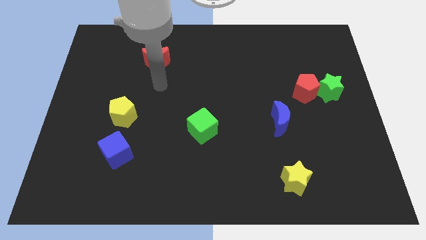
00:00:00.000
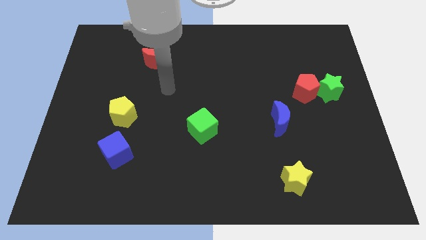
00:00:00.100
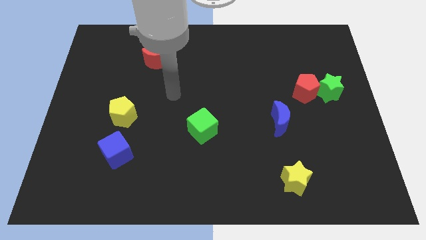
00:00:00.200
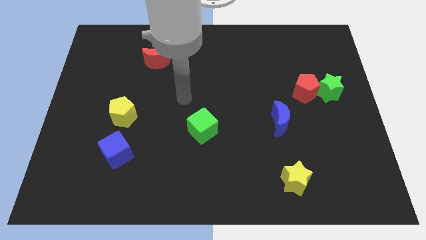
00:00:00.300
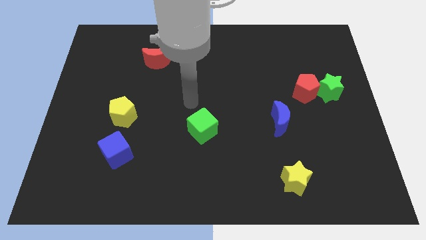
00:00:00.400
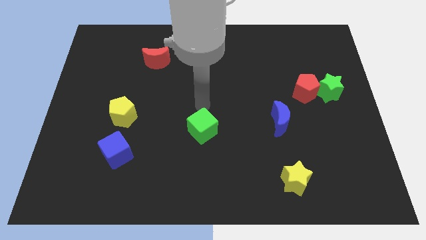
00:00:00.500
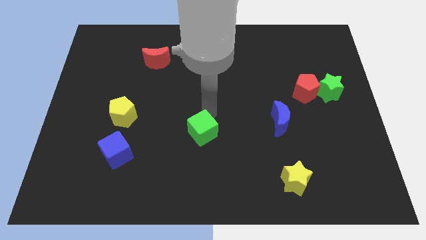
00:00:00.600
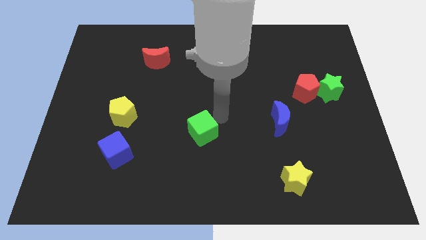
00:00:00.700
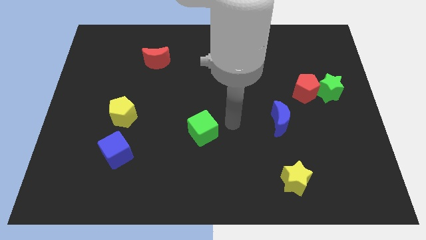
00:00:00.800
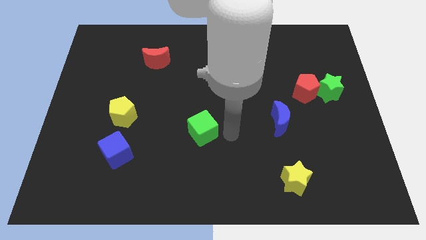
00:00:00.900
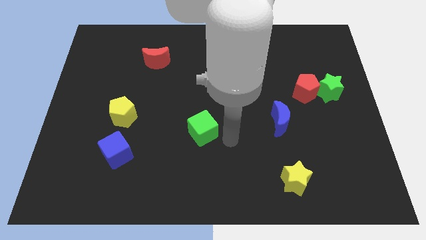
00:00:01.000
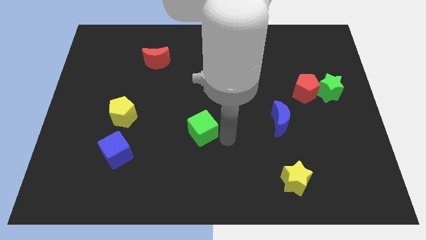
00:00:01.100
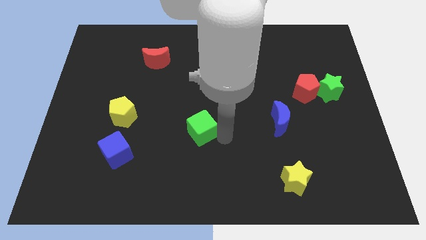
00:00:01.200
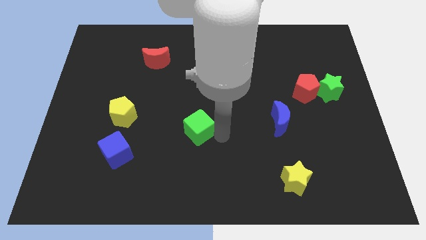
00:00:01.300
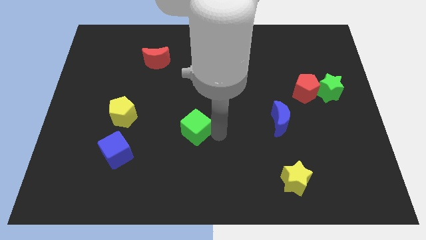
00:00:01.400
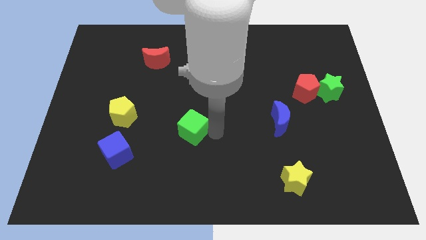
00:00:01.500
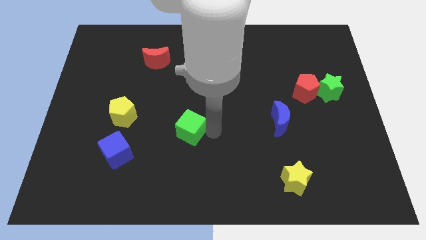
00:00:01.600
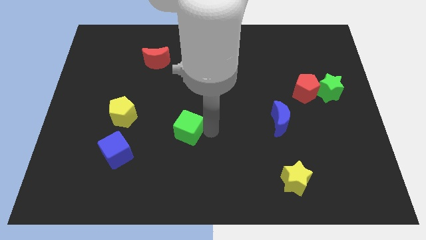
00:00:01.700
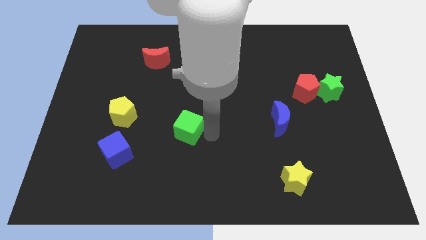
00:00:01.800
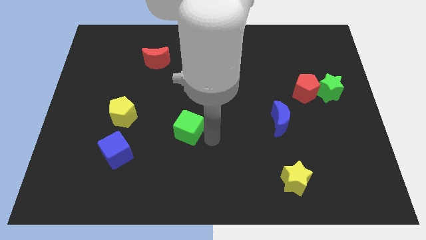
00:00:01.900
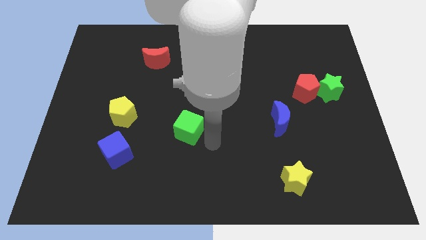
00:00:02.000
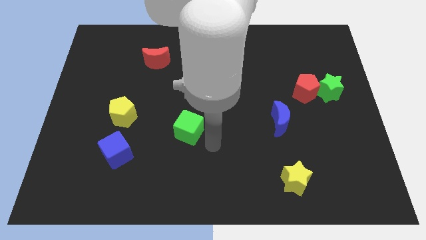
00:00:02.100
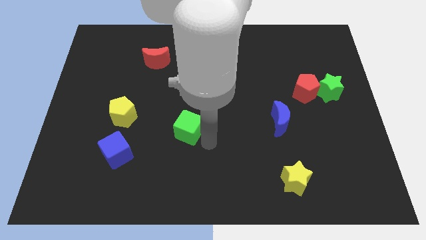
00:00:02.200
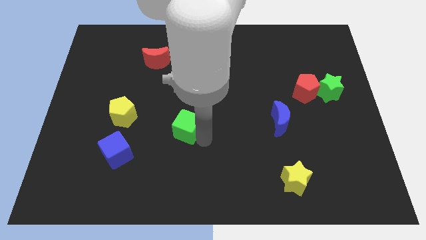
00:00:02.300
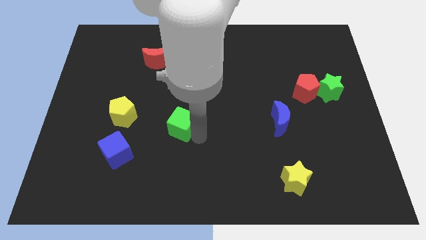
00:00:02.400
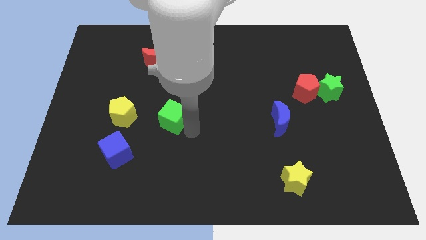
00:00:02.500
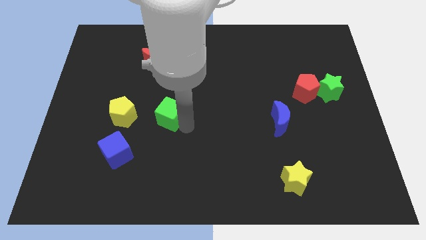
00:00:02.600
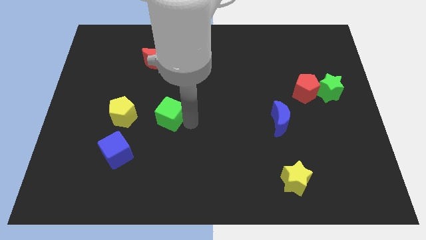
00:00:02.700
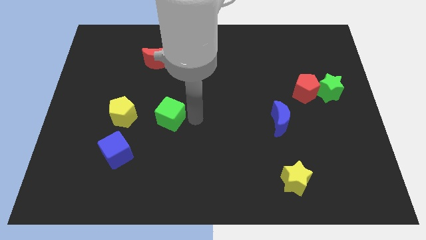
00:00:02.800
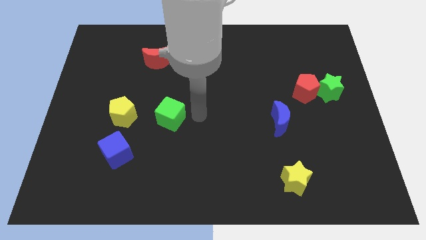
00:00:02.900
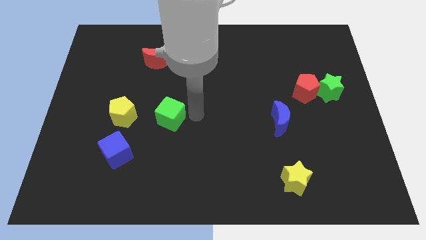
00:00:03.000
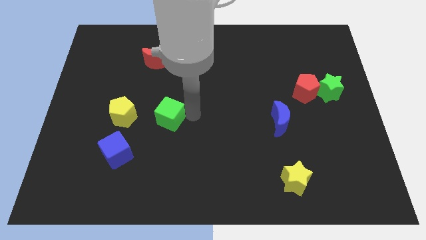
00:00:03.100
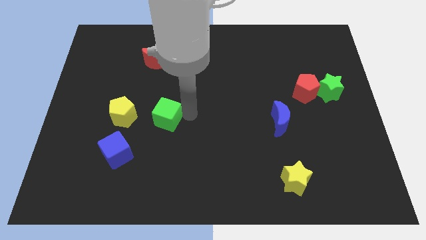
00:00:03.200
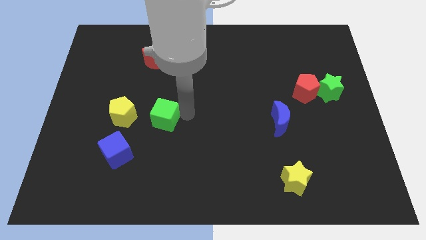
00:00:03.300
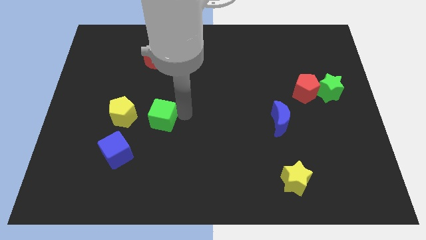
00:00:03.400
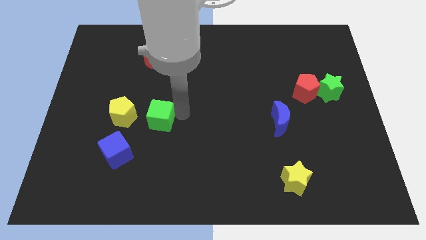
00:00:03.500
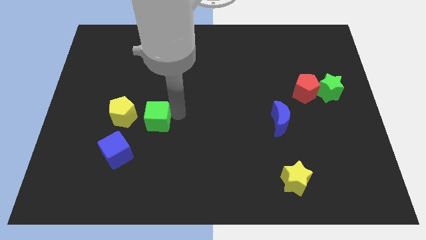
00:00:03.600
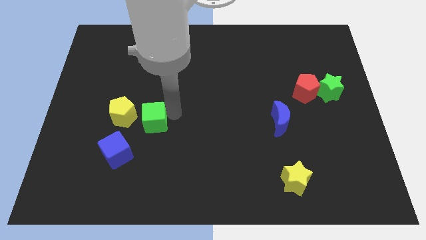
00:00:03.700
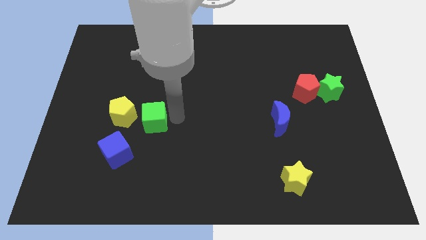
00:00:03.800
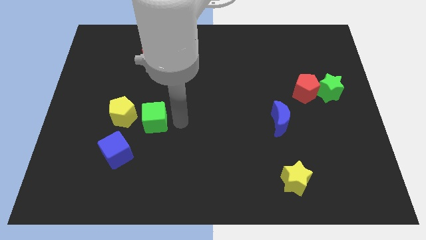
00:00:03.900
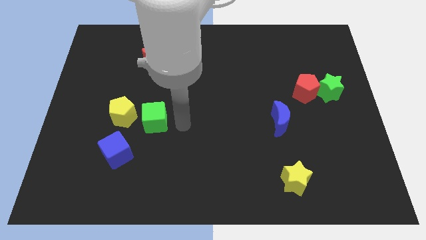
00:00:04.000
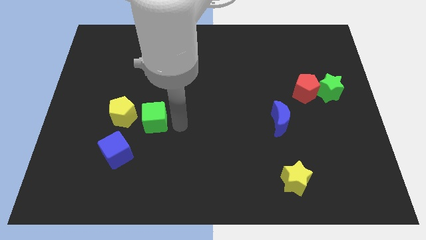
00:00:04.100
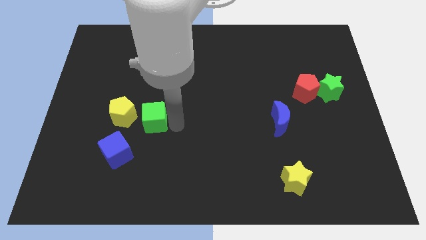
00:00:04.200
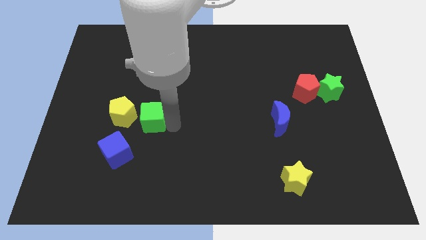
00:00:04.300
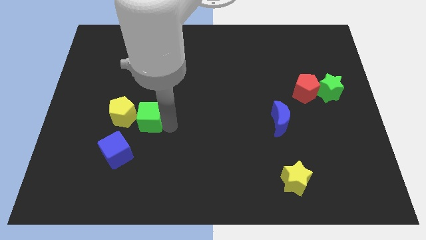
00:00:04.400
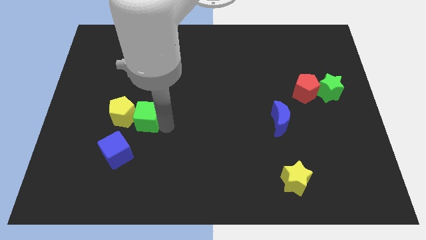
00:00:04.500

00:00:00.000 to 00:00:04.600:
push the green cube towards the yellow pentagon

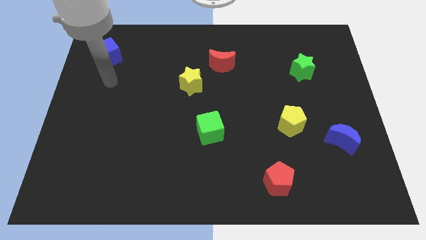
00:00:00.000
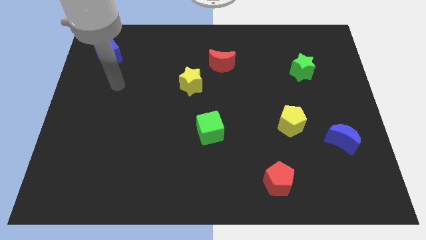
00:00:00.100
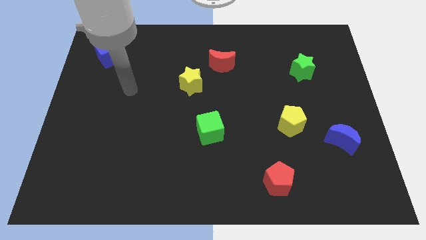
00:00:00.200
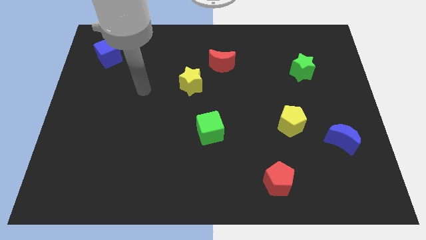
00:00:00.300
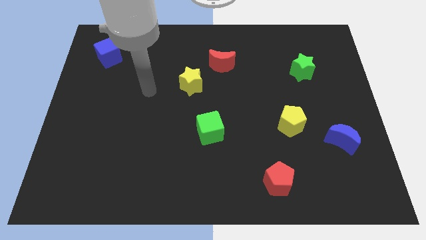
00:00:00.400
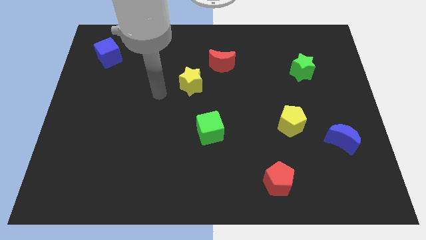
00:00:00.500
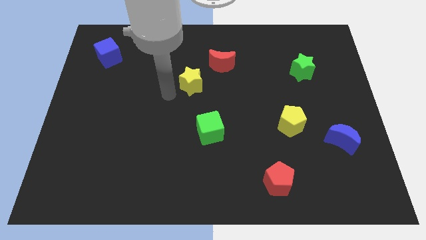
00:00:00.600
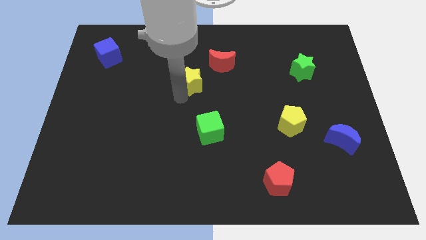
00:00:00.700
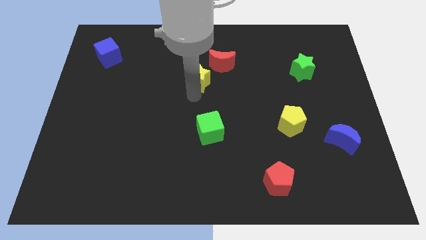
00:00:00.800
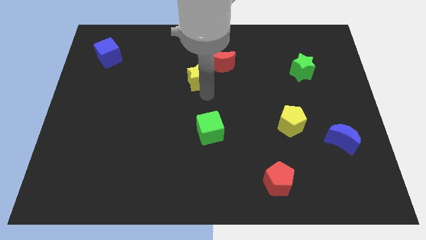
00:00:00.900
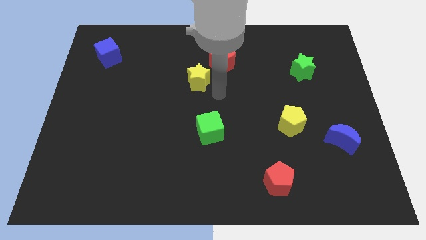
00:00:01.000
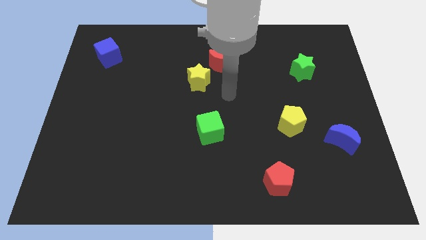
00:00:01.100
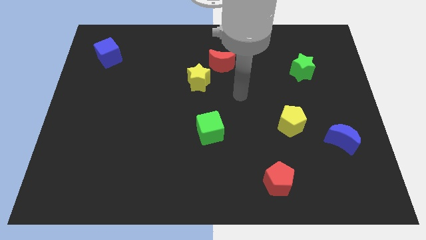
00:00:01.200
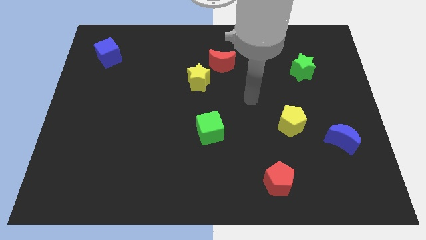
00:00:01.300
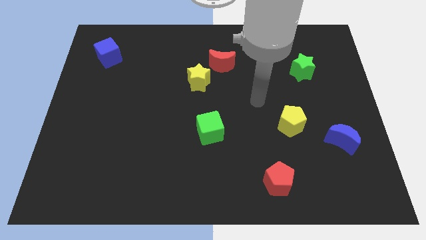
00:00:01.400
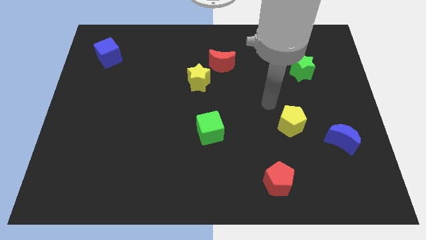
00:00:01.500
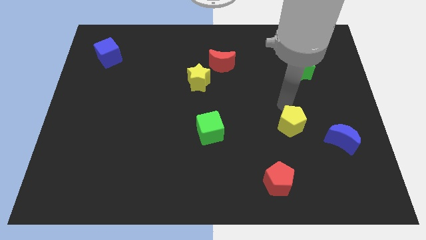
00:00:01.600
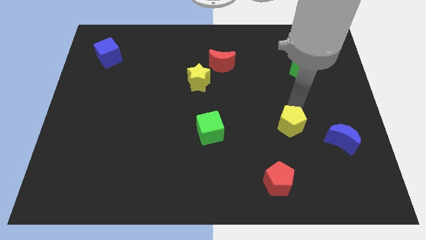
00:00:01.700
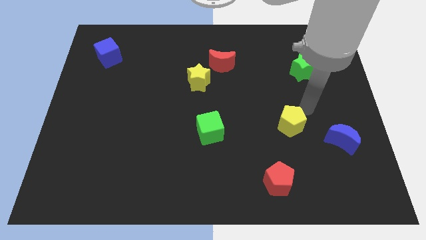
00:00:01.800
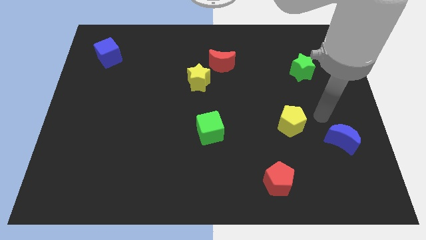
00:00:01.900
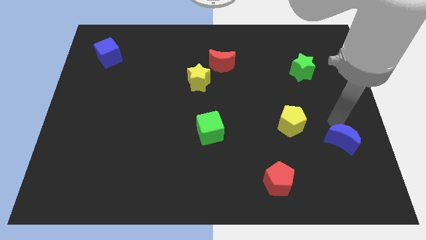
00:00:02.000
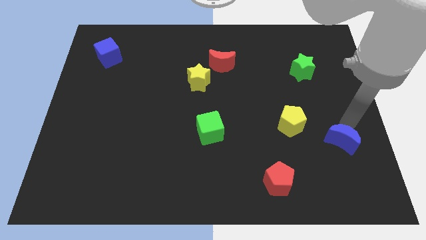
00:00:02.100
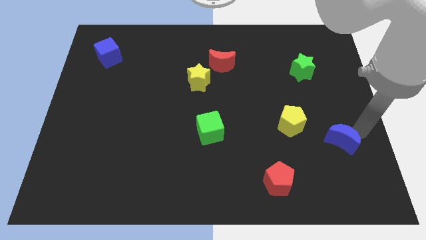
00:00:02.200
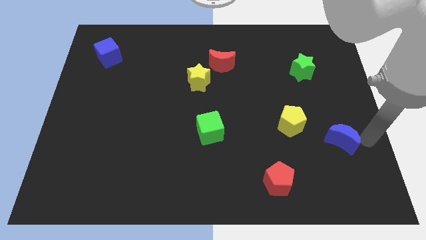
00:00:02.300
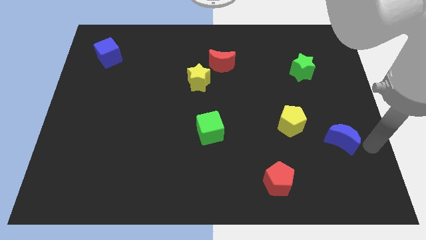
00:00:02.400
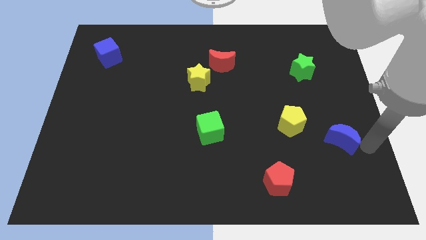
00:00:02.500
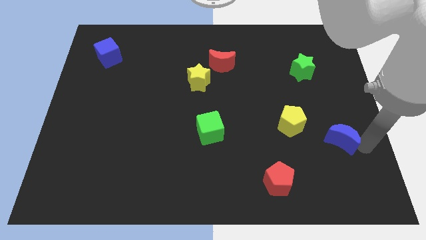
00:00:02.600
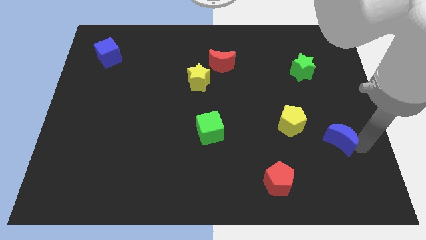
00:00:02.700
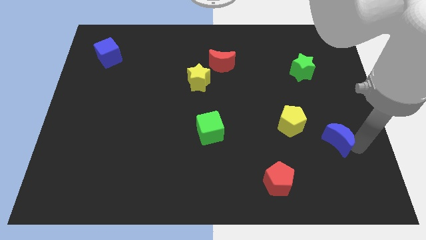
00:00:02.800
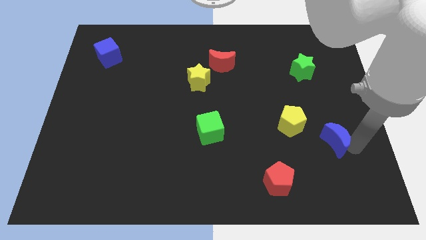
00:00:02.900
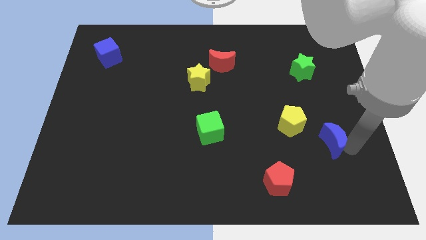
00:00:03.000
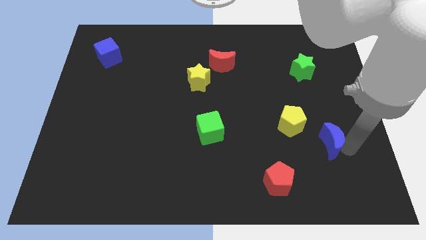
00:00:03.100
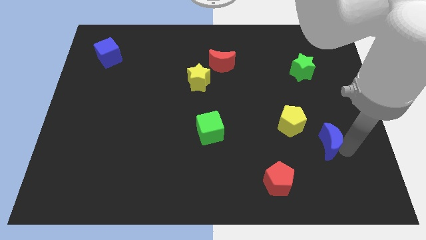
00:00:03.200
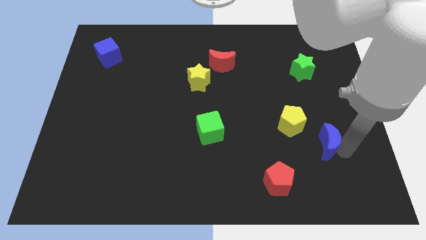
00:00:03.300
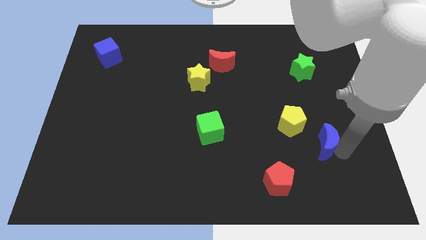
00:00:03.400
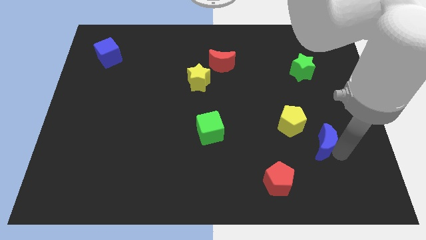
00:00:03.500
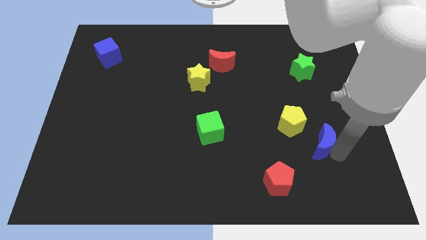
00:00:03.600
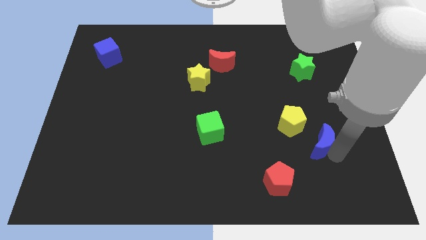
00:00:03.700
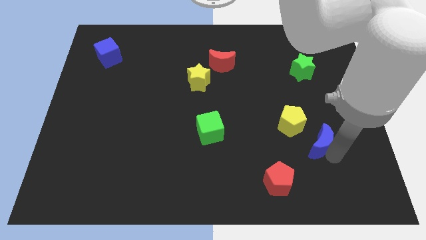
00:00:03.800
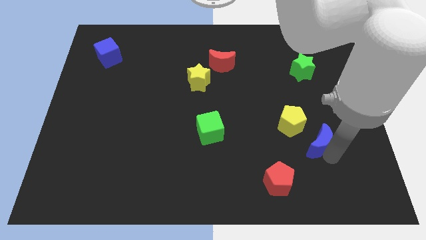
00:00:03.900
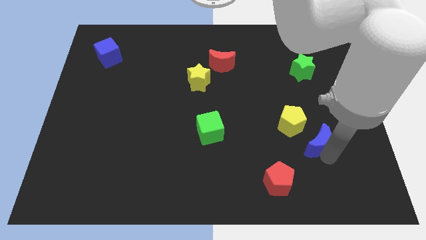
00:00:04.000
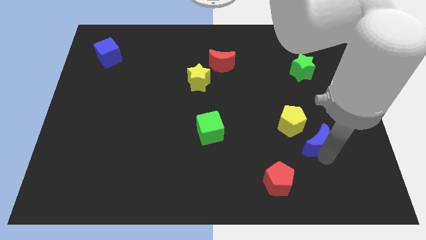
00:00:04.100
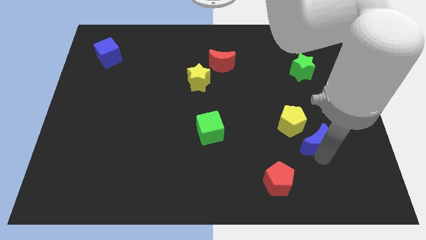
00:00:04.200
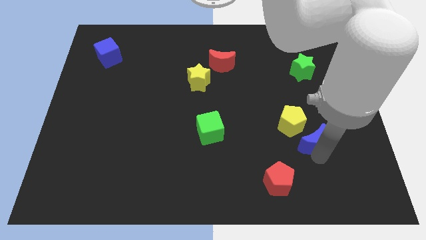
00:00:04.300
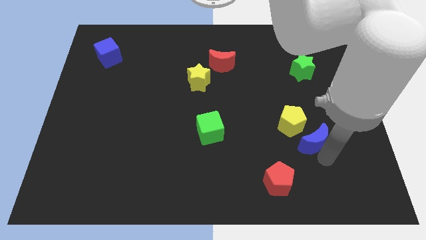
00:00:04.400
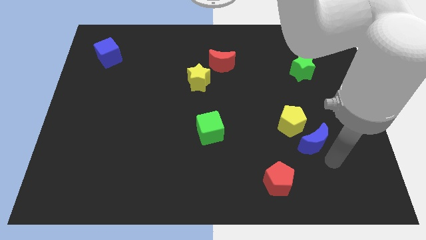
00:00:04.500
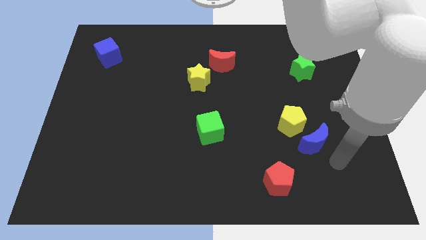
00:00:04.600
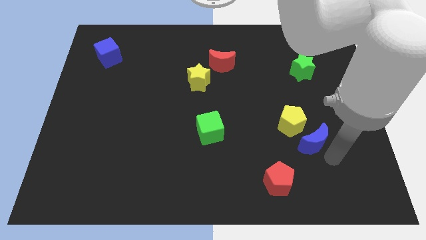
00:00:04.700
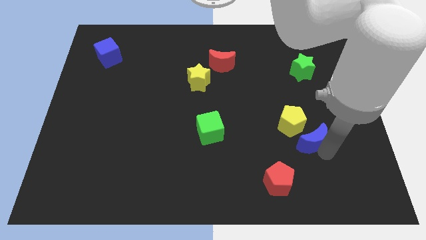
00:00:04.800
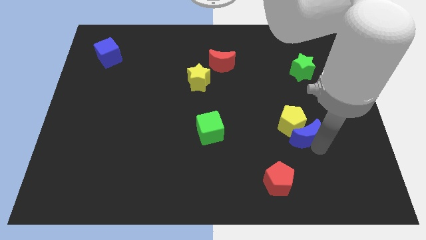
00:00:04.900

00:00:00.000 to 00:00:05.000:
put the blue moon towards the yellow pentagon
